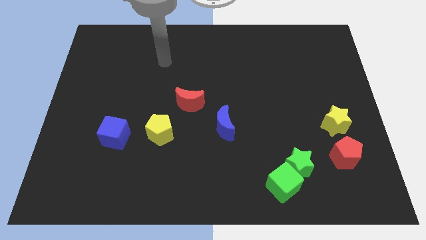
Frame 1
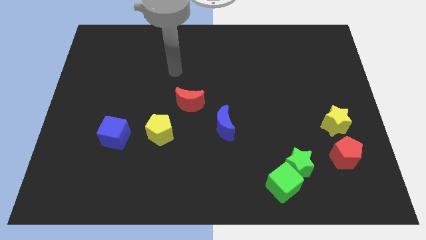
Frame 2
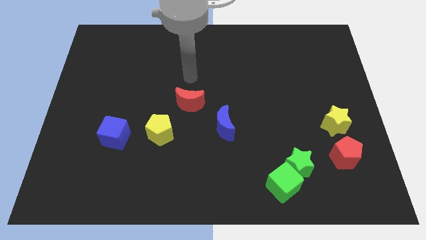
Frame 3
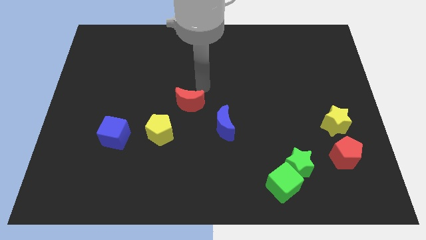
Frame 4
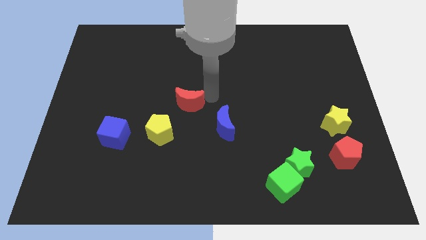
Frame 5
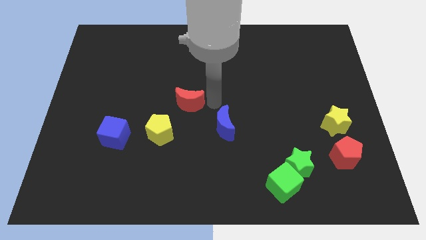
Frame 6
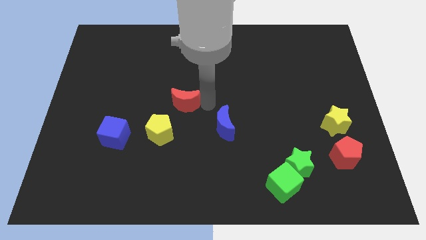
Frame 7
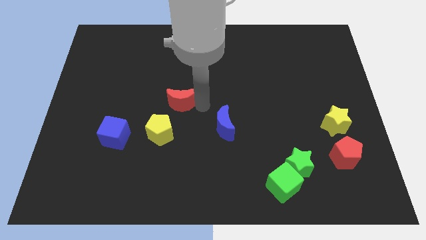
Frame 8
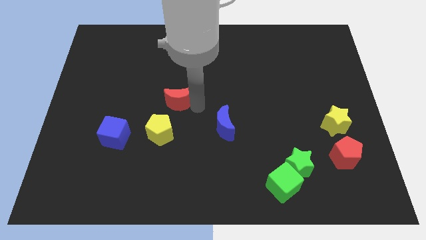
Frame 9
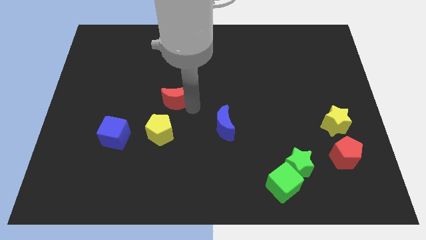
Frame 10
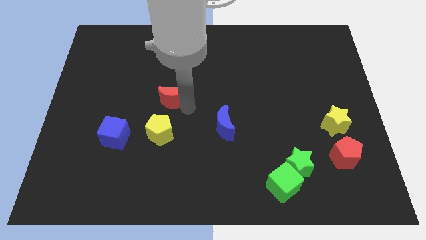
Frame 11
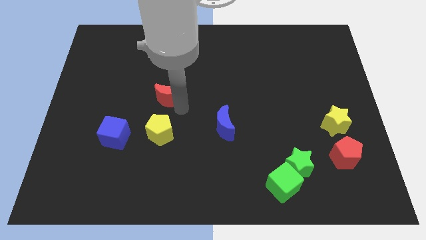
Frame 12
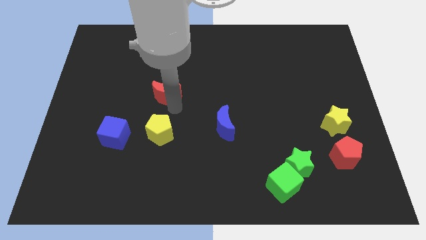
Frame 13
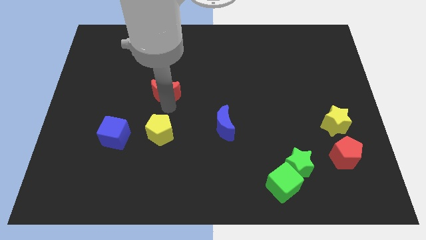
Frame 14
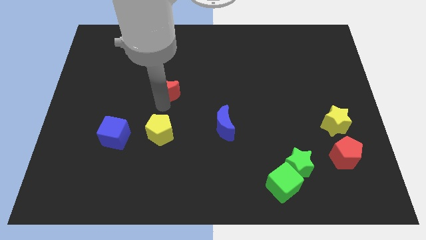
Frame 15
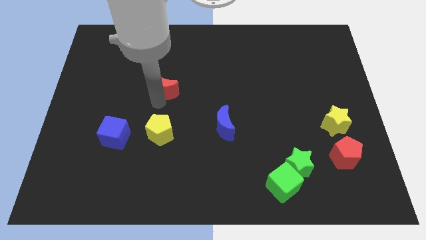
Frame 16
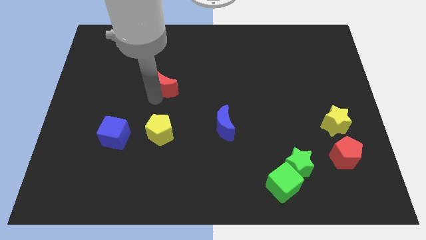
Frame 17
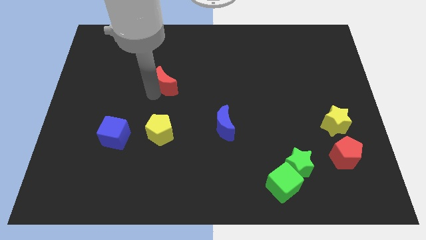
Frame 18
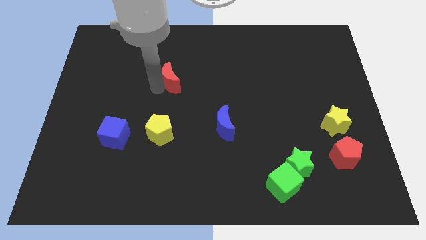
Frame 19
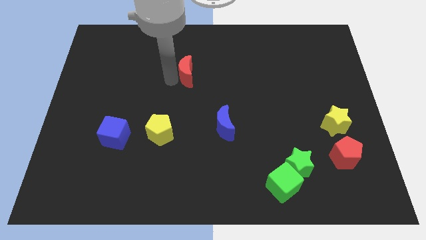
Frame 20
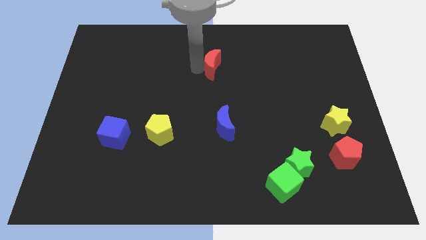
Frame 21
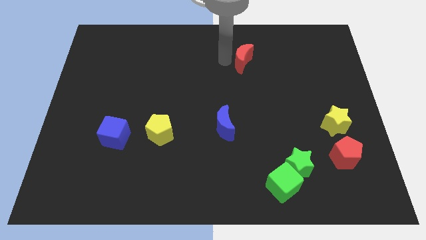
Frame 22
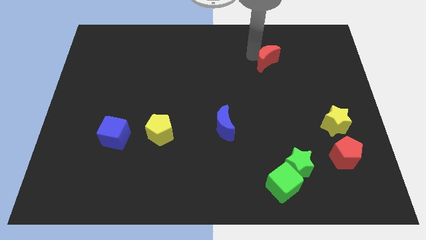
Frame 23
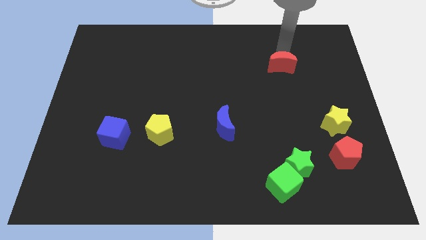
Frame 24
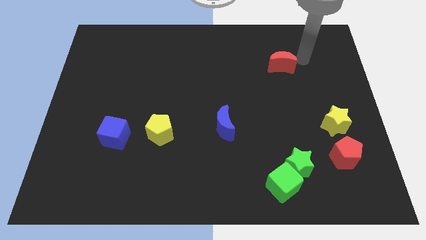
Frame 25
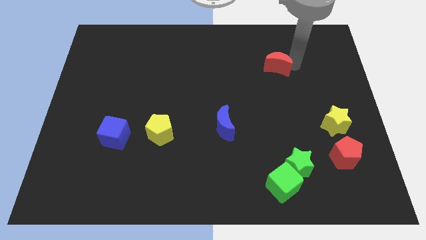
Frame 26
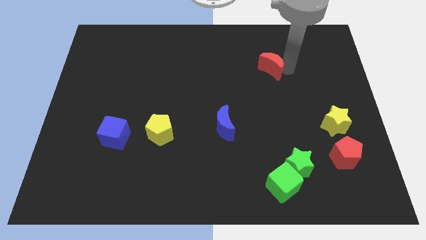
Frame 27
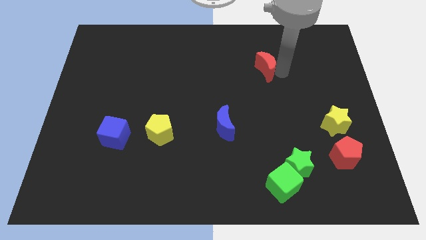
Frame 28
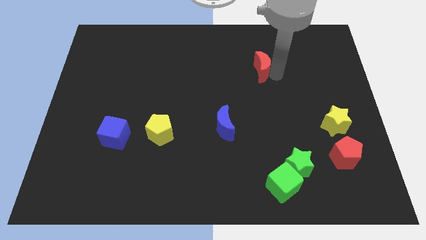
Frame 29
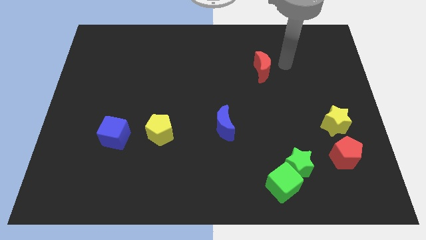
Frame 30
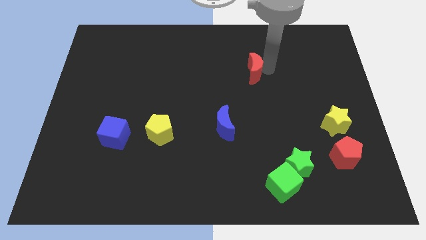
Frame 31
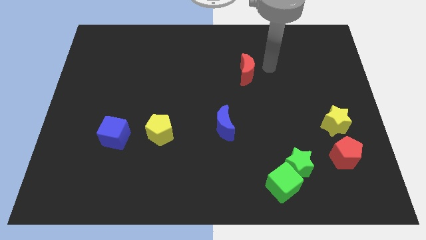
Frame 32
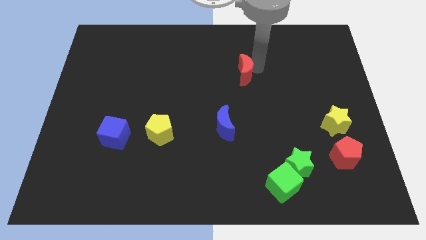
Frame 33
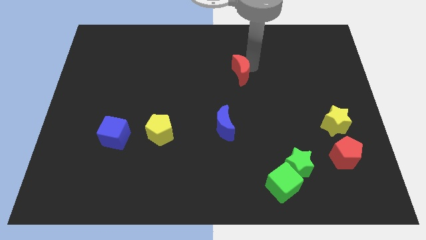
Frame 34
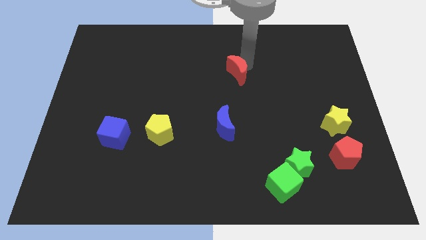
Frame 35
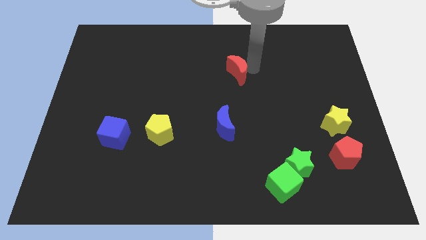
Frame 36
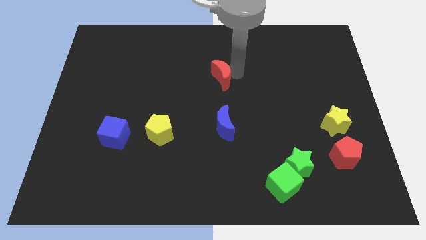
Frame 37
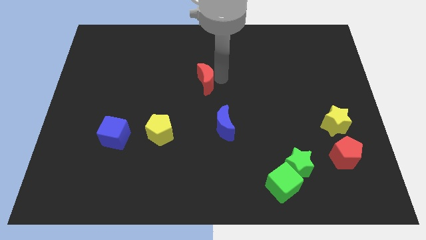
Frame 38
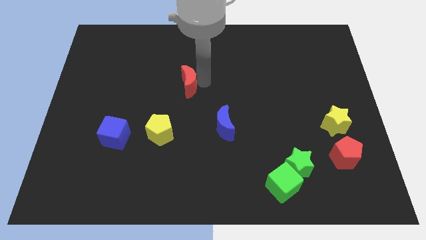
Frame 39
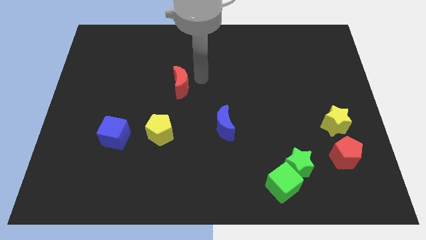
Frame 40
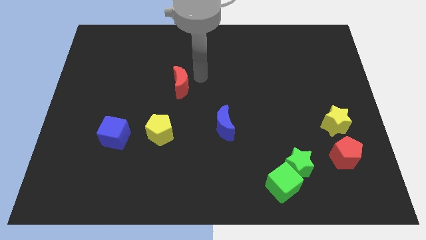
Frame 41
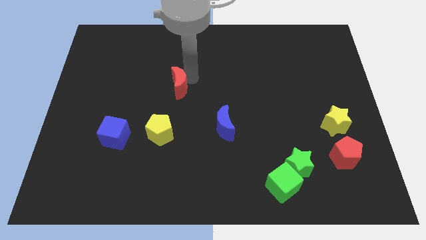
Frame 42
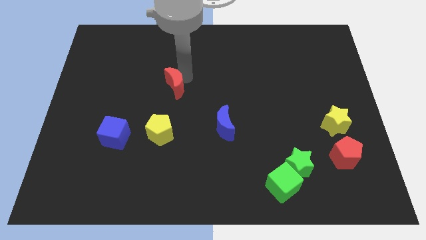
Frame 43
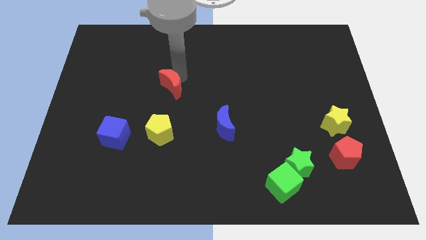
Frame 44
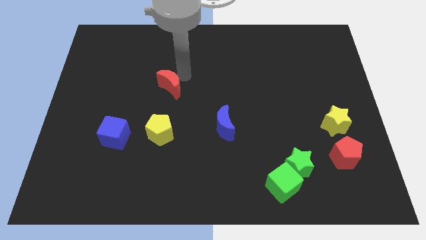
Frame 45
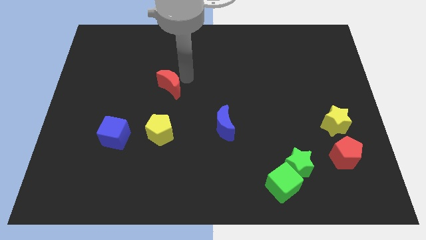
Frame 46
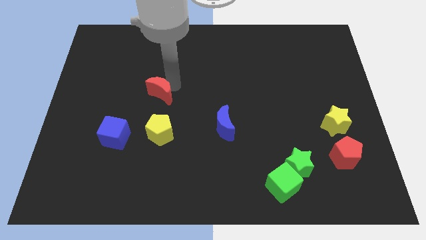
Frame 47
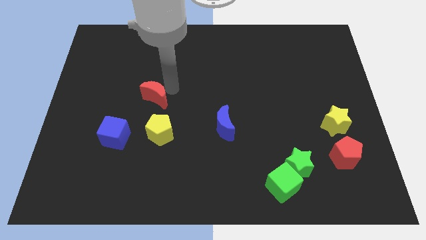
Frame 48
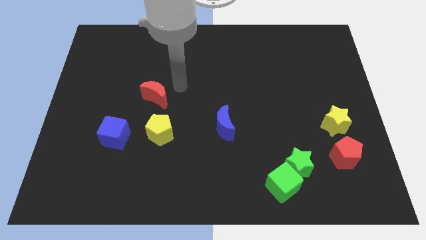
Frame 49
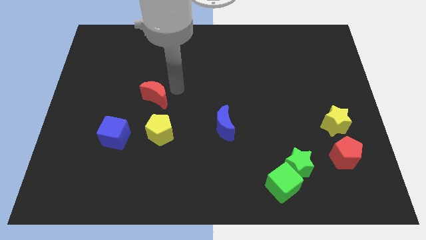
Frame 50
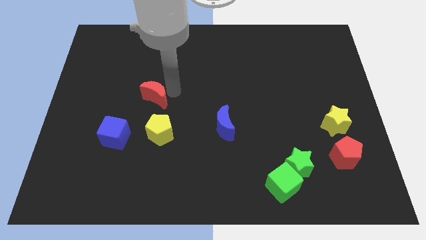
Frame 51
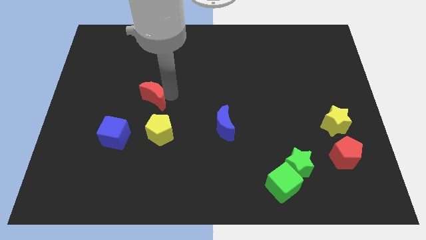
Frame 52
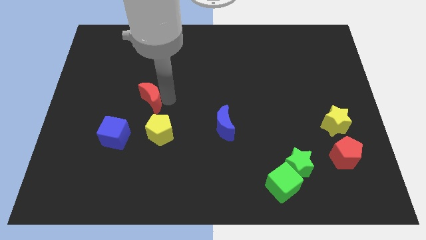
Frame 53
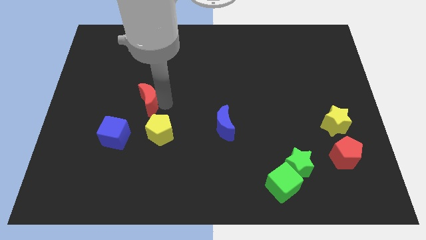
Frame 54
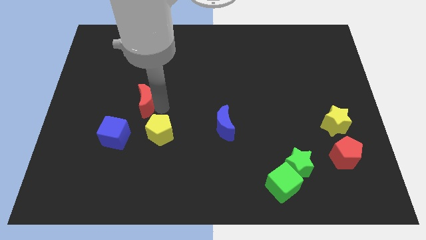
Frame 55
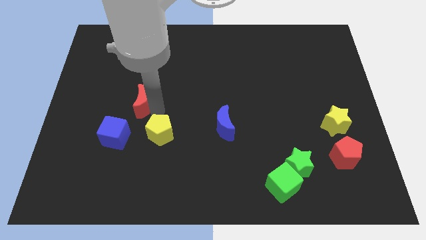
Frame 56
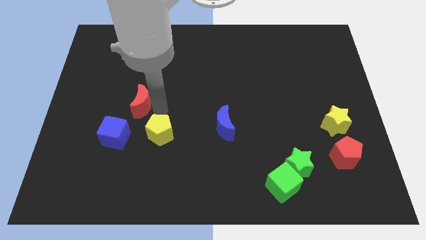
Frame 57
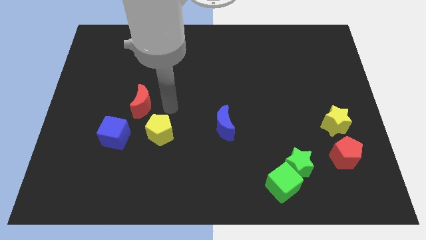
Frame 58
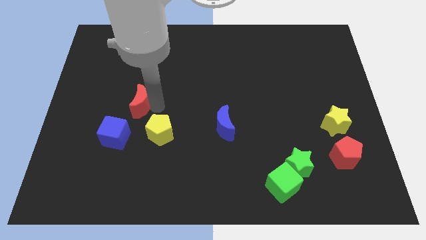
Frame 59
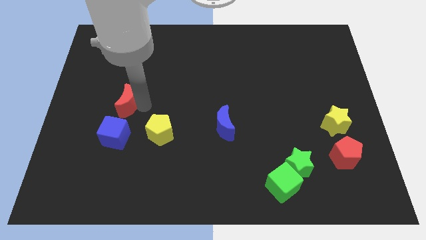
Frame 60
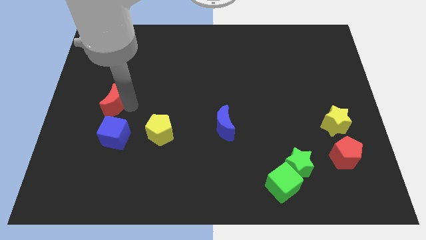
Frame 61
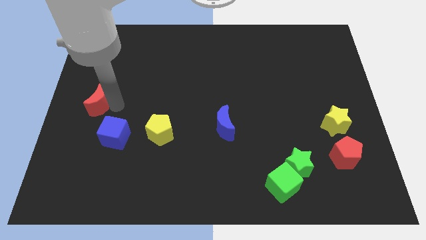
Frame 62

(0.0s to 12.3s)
put the red moon to the left side
